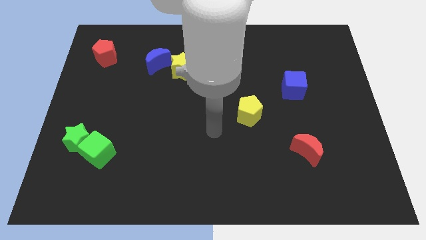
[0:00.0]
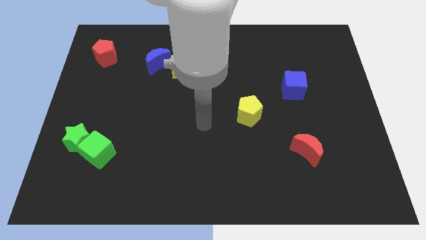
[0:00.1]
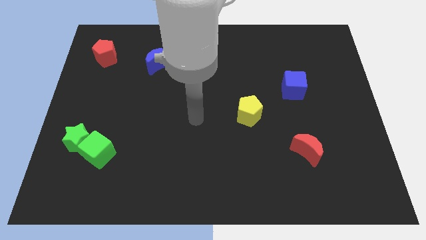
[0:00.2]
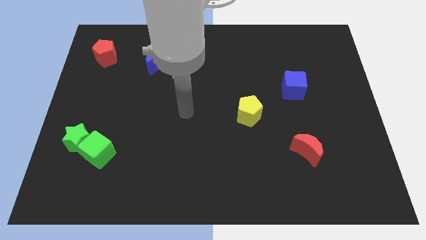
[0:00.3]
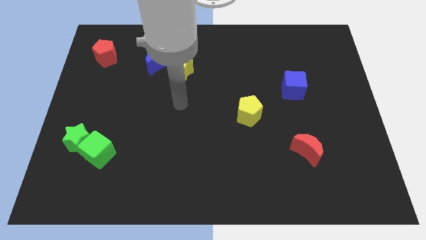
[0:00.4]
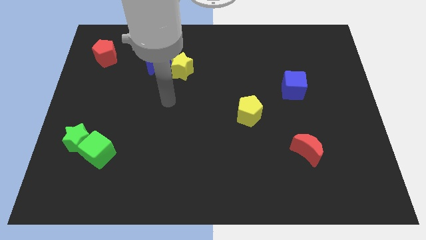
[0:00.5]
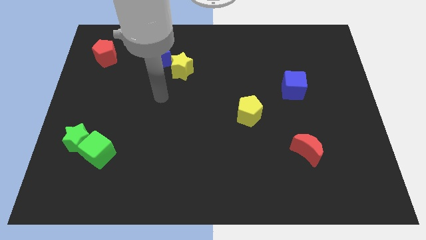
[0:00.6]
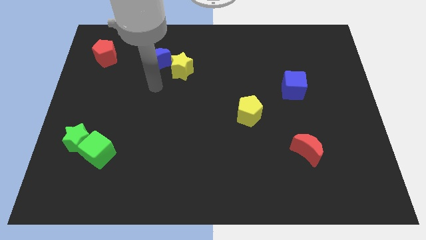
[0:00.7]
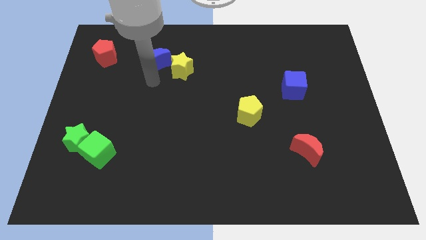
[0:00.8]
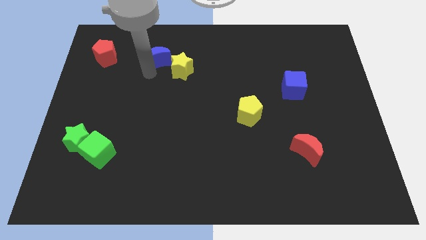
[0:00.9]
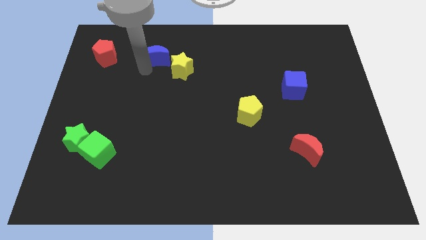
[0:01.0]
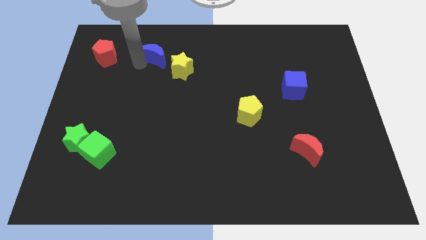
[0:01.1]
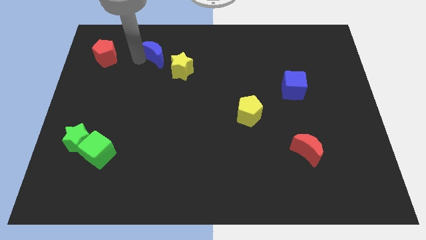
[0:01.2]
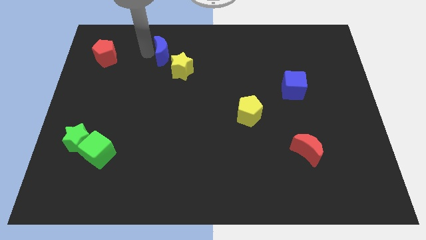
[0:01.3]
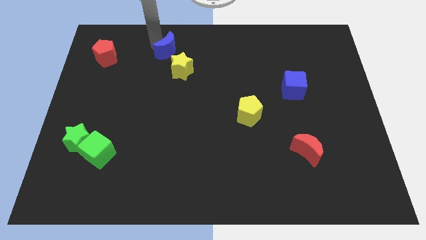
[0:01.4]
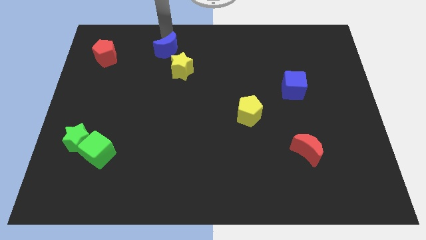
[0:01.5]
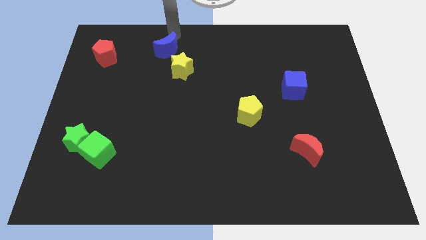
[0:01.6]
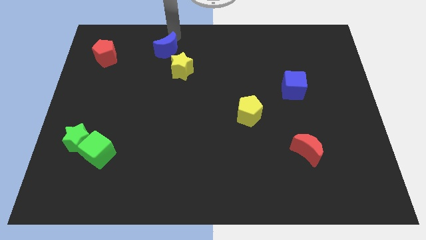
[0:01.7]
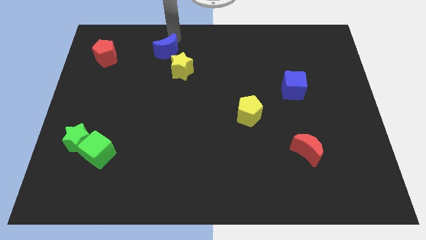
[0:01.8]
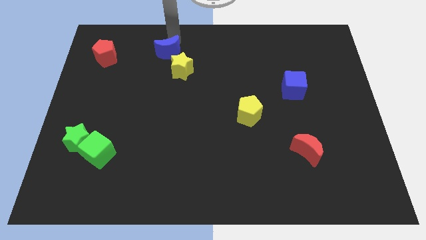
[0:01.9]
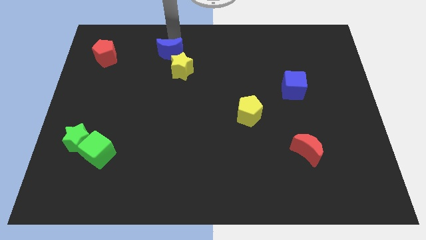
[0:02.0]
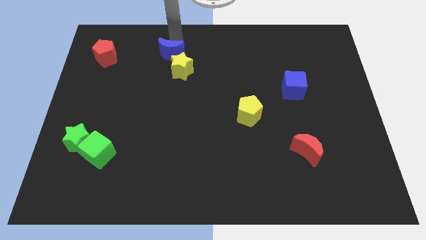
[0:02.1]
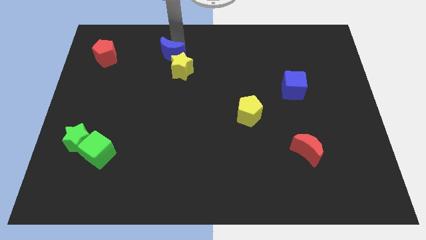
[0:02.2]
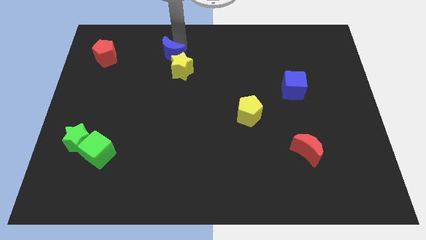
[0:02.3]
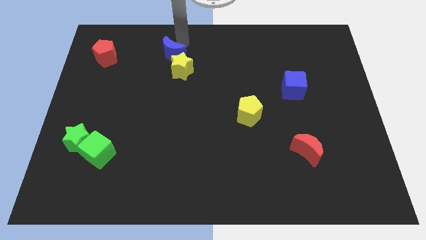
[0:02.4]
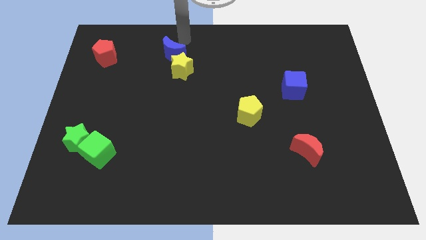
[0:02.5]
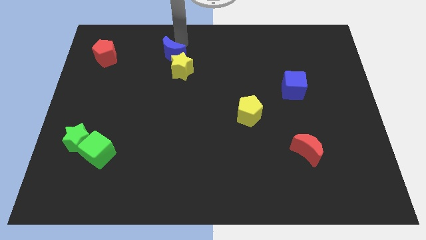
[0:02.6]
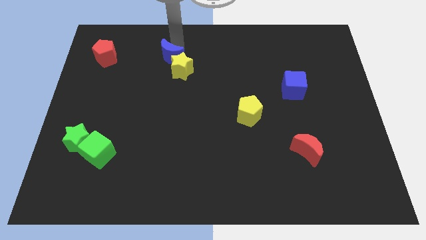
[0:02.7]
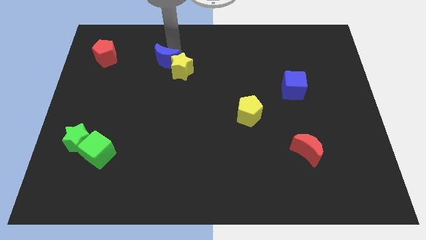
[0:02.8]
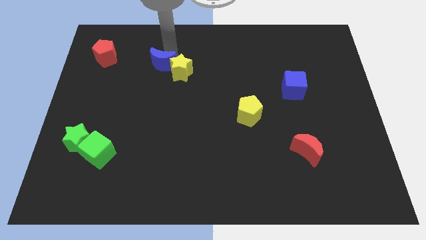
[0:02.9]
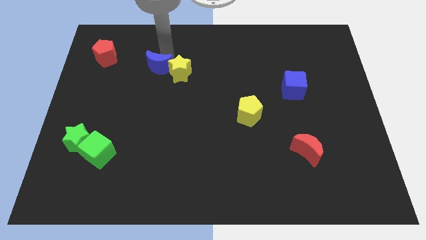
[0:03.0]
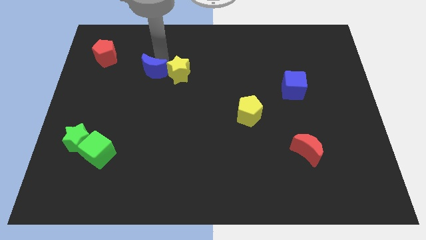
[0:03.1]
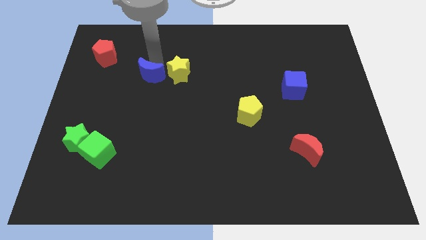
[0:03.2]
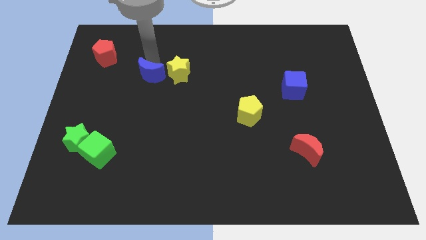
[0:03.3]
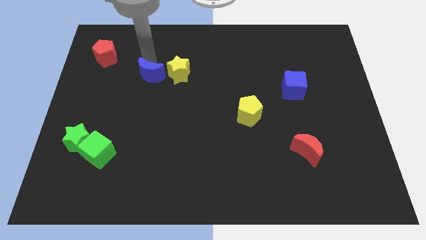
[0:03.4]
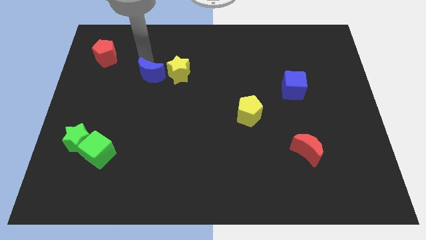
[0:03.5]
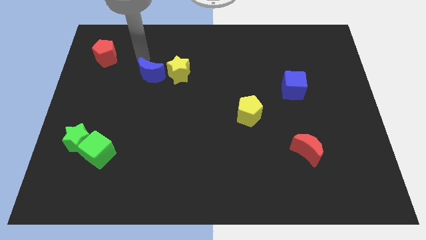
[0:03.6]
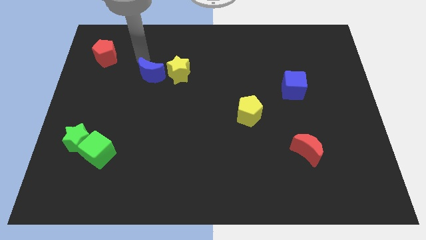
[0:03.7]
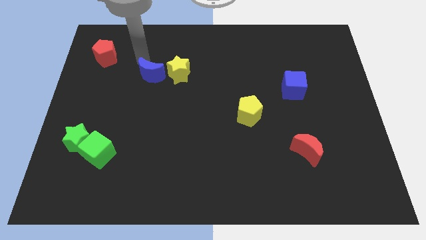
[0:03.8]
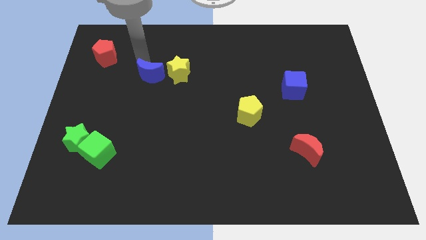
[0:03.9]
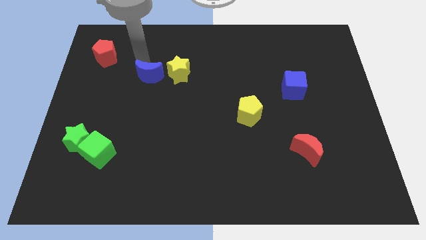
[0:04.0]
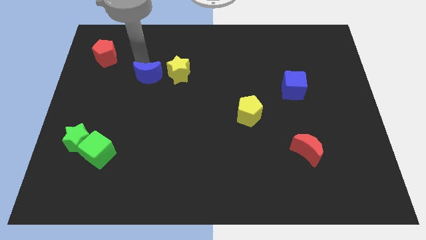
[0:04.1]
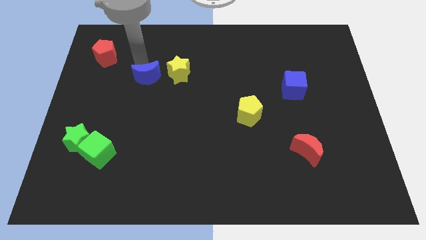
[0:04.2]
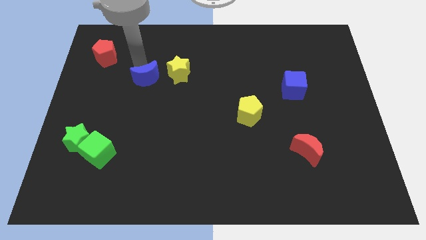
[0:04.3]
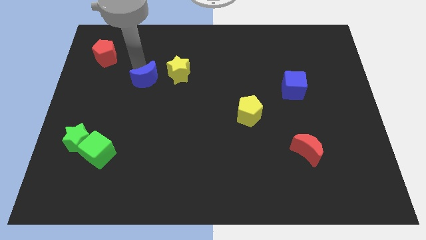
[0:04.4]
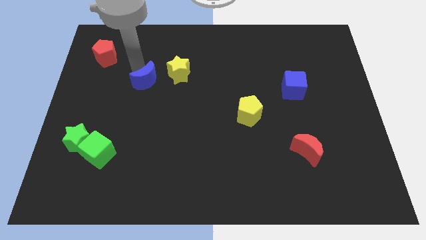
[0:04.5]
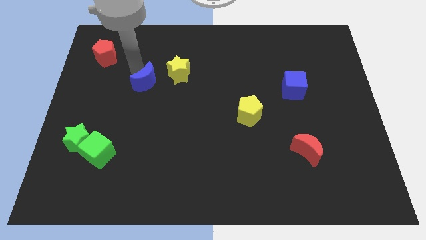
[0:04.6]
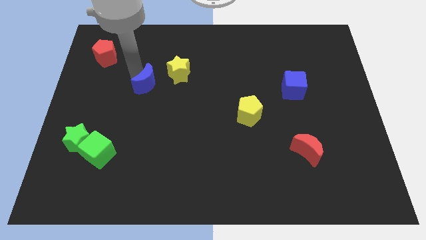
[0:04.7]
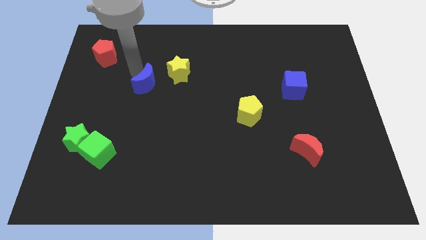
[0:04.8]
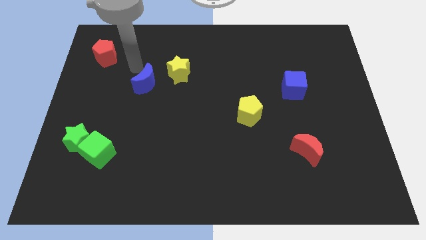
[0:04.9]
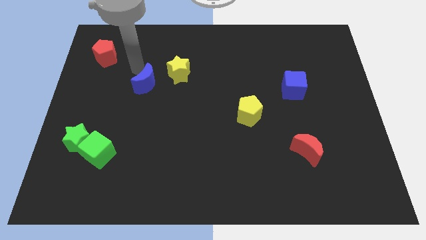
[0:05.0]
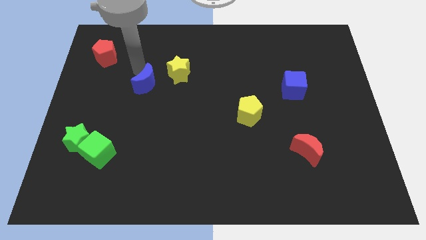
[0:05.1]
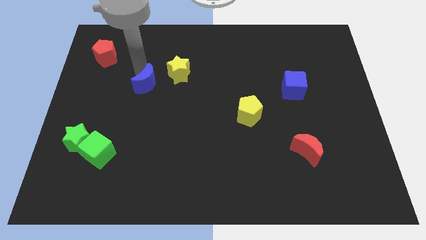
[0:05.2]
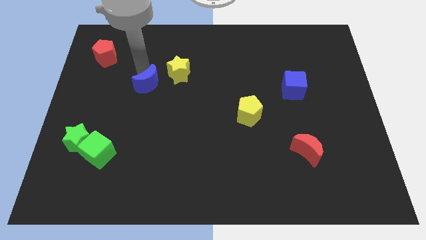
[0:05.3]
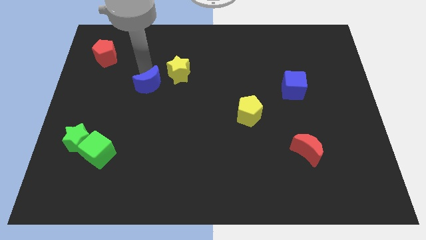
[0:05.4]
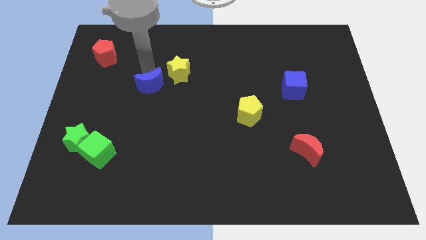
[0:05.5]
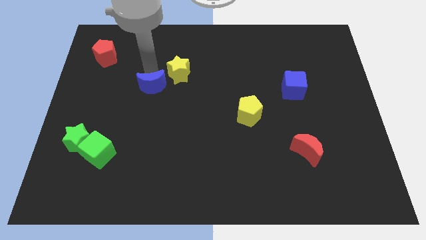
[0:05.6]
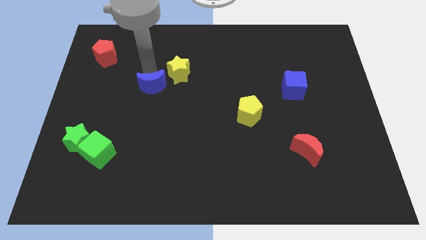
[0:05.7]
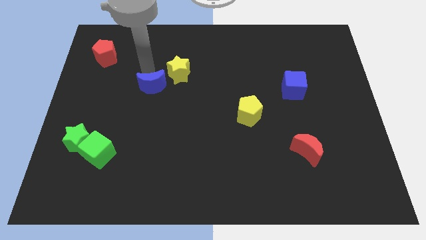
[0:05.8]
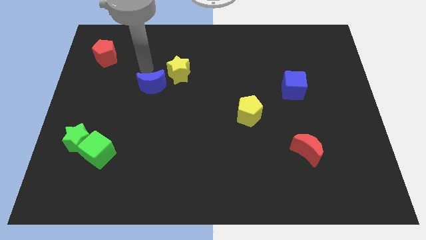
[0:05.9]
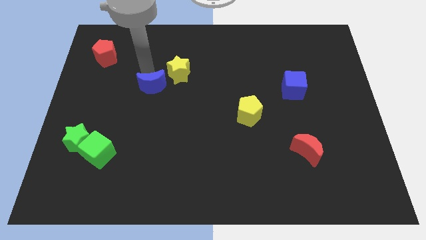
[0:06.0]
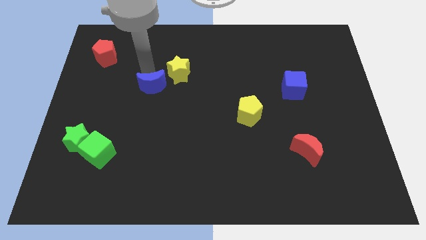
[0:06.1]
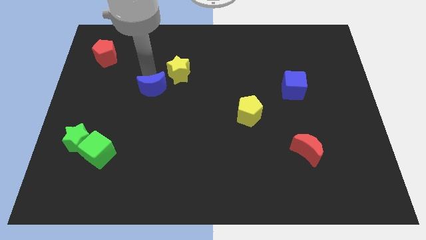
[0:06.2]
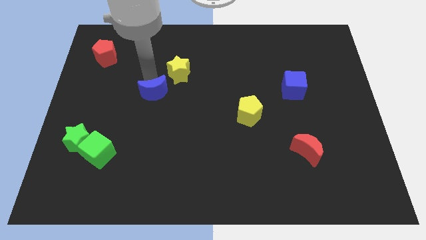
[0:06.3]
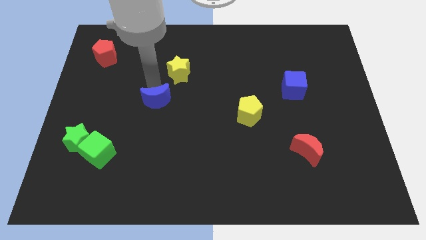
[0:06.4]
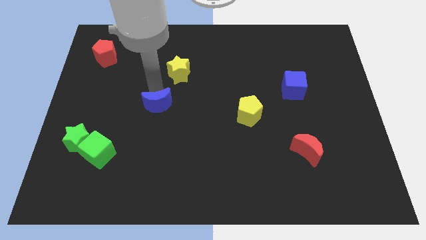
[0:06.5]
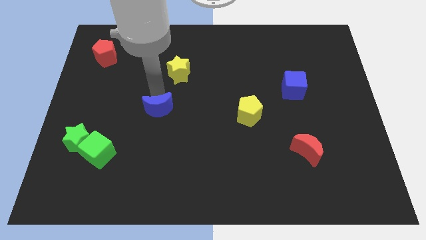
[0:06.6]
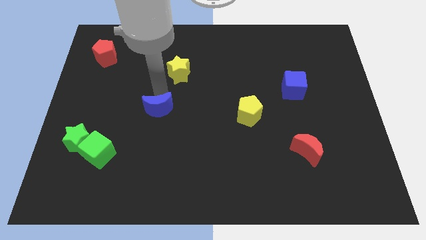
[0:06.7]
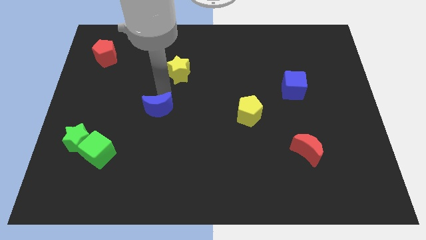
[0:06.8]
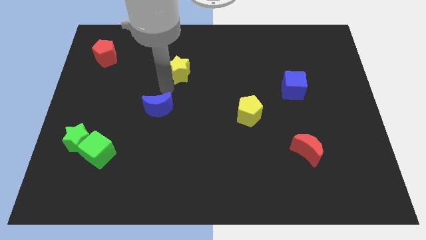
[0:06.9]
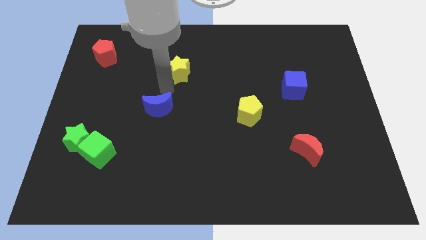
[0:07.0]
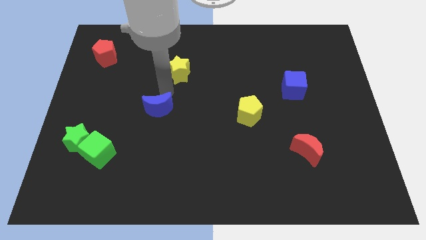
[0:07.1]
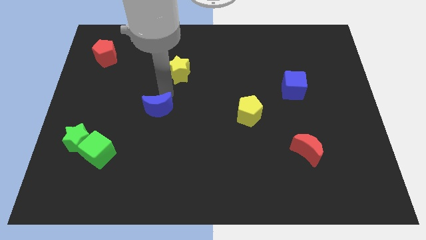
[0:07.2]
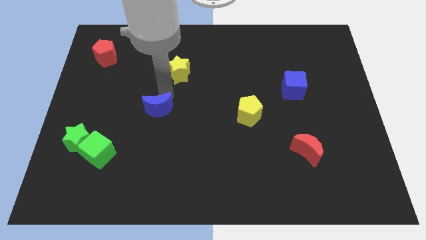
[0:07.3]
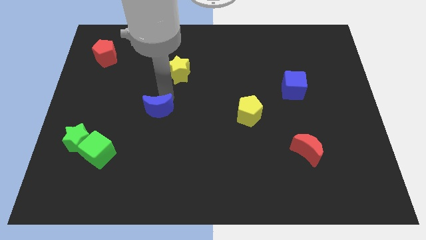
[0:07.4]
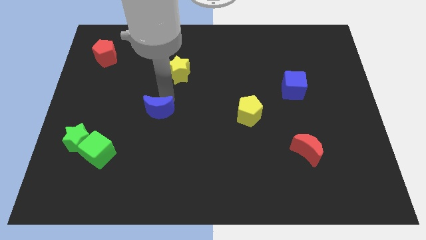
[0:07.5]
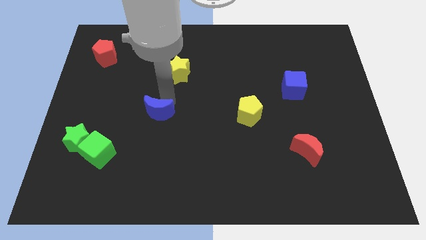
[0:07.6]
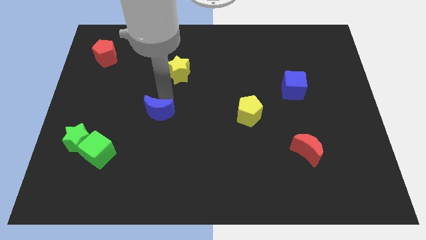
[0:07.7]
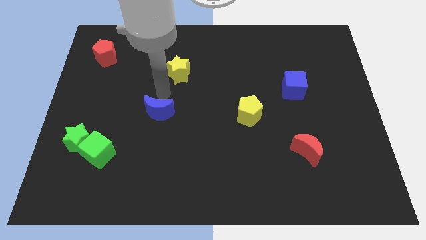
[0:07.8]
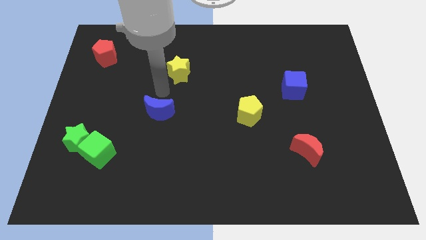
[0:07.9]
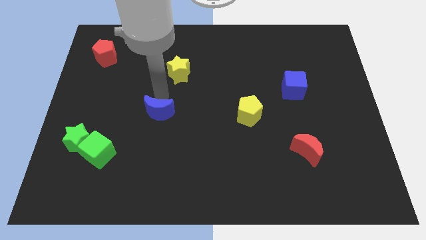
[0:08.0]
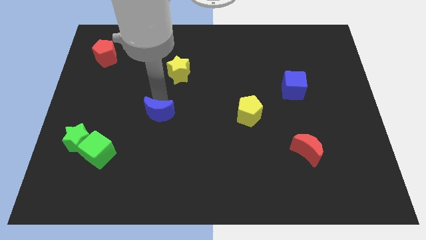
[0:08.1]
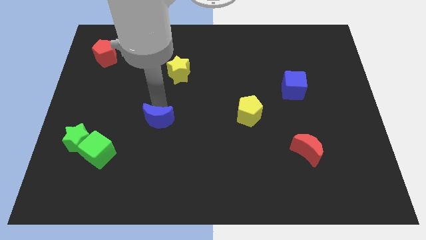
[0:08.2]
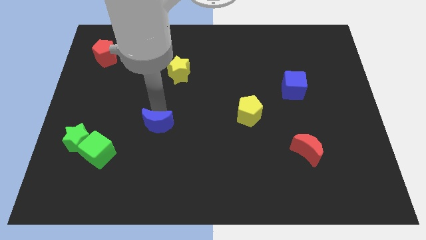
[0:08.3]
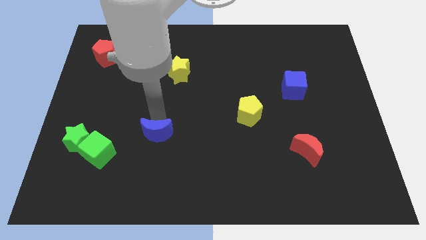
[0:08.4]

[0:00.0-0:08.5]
slide the blue moon down
